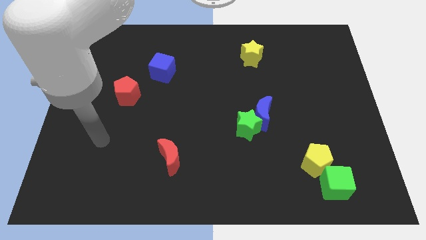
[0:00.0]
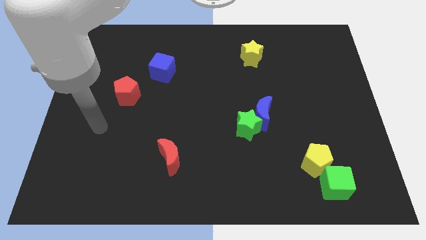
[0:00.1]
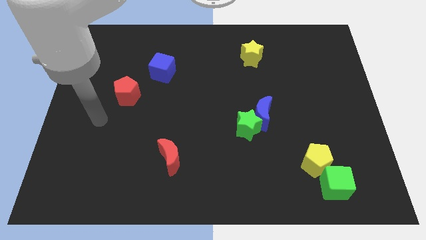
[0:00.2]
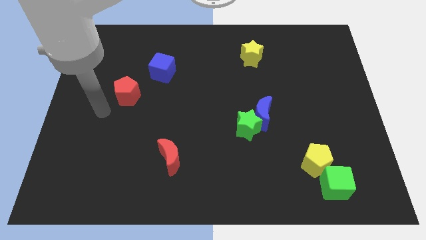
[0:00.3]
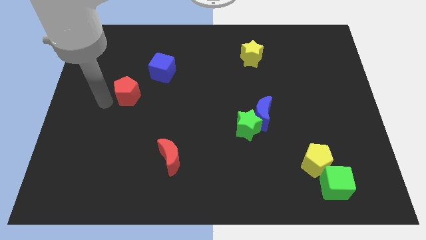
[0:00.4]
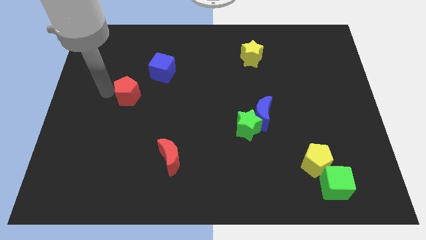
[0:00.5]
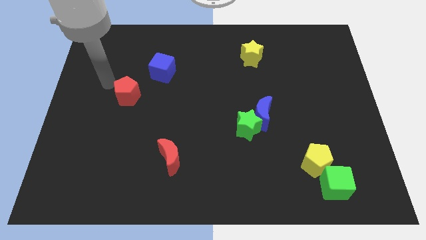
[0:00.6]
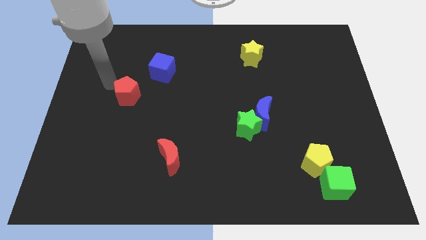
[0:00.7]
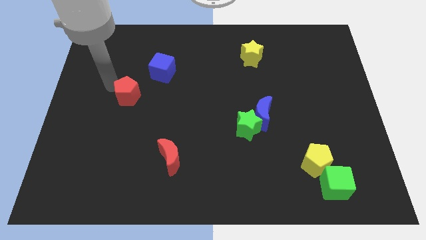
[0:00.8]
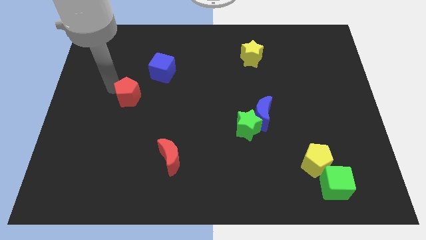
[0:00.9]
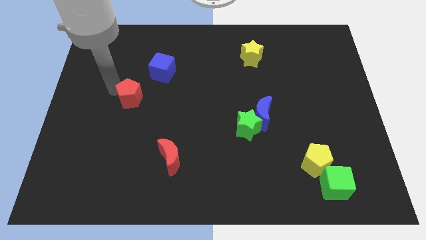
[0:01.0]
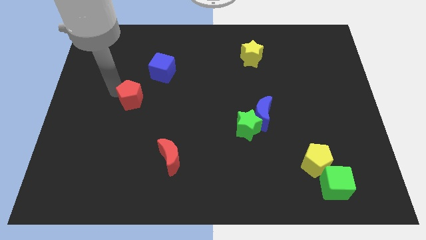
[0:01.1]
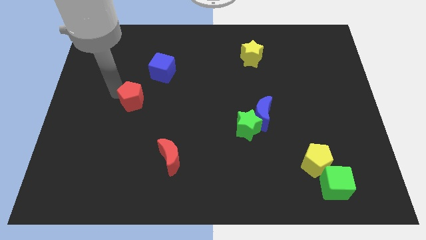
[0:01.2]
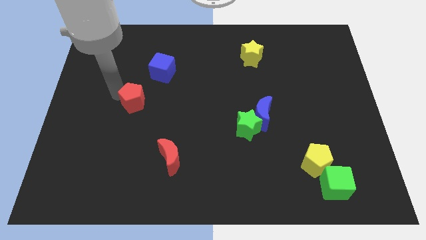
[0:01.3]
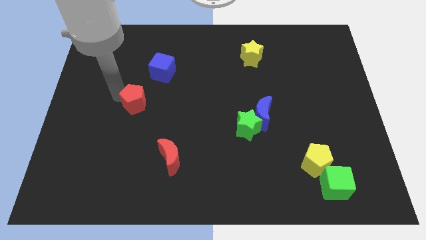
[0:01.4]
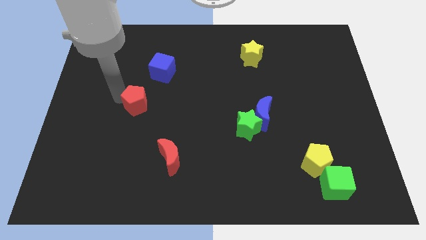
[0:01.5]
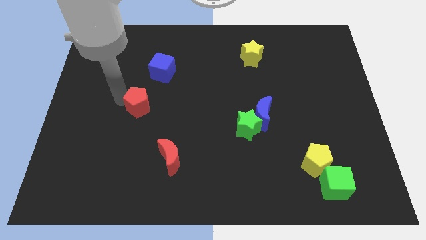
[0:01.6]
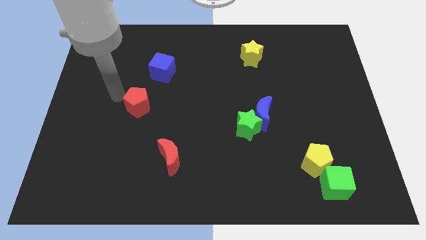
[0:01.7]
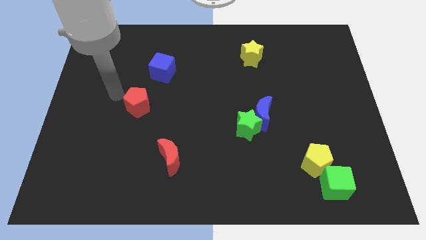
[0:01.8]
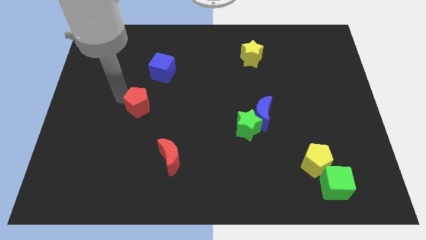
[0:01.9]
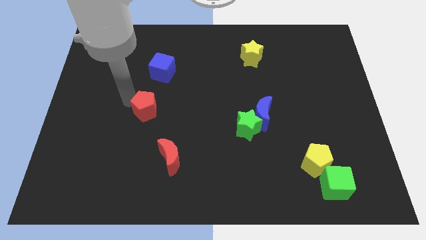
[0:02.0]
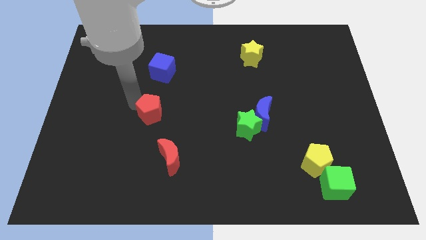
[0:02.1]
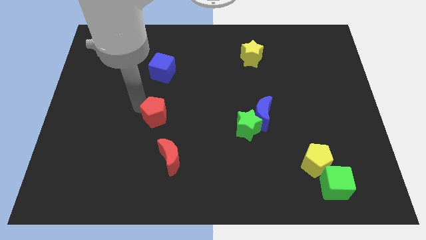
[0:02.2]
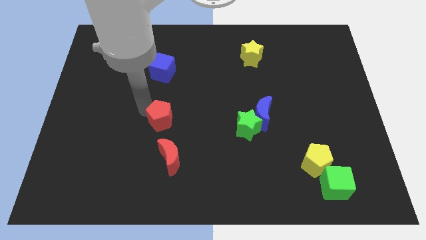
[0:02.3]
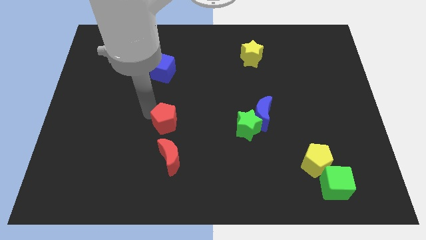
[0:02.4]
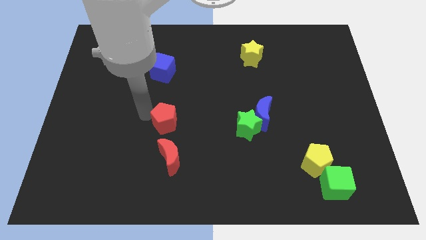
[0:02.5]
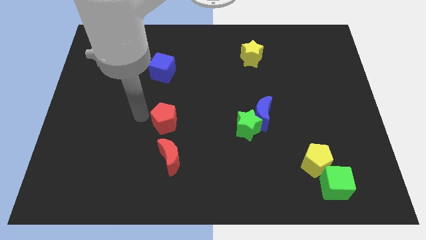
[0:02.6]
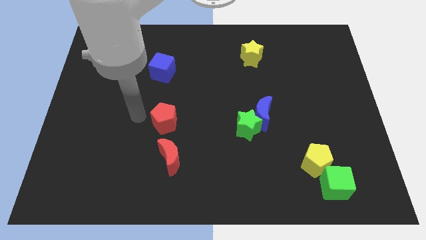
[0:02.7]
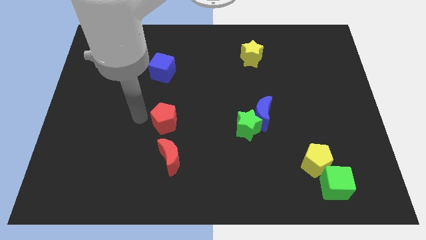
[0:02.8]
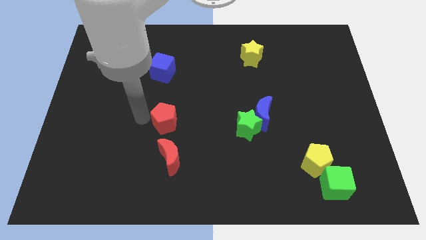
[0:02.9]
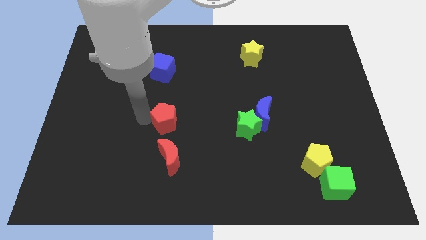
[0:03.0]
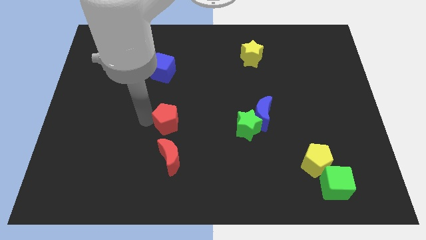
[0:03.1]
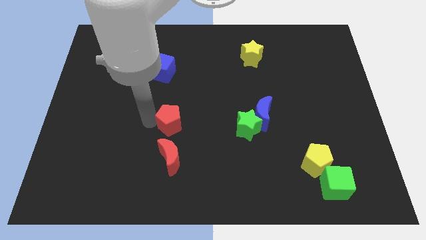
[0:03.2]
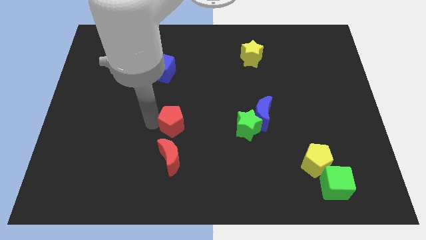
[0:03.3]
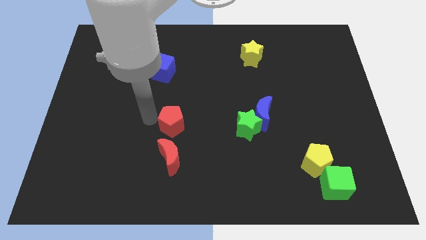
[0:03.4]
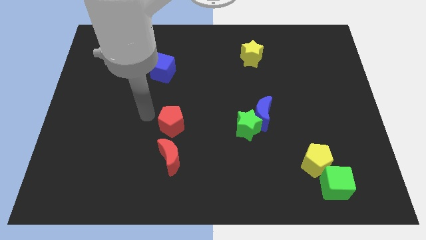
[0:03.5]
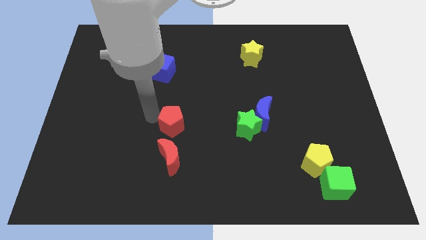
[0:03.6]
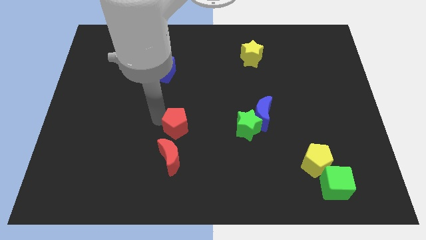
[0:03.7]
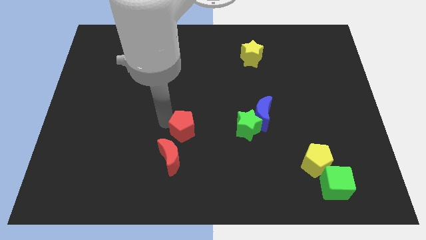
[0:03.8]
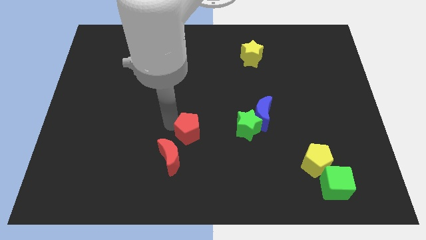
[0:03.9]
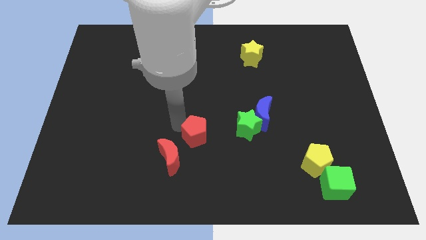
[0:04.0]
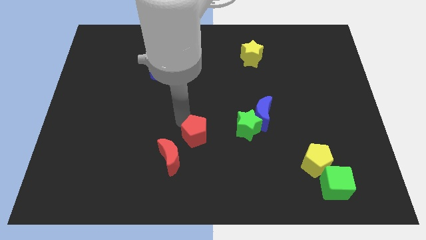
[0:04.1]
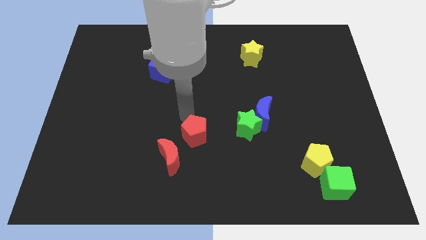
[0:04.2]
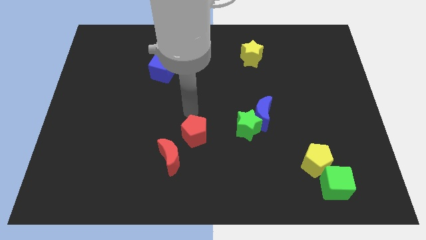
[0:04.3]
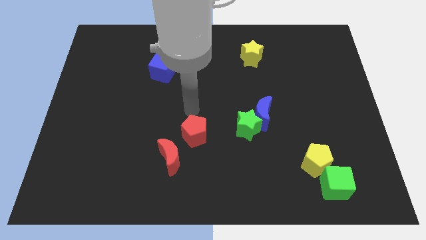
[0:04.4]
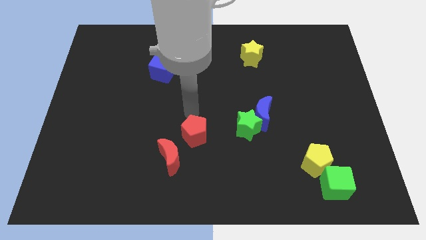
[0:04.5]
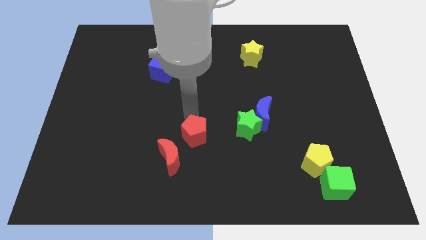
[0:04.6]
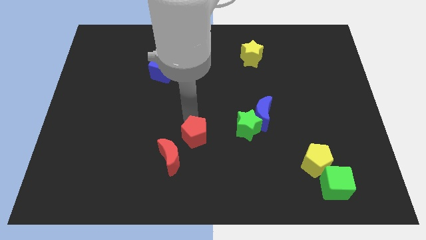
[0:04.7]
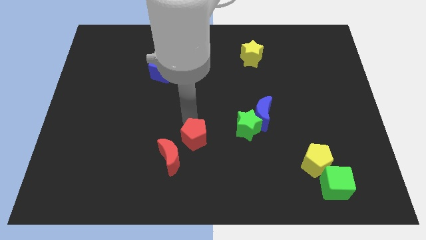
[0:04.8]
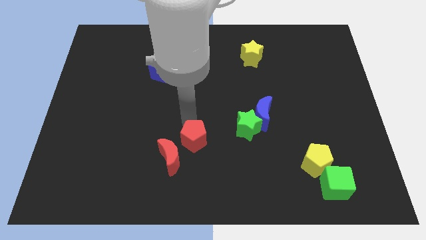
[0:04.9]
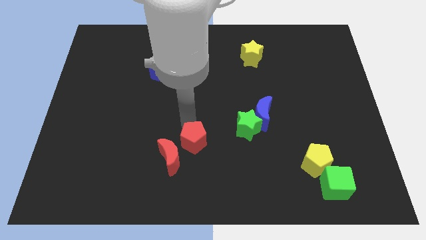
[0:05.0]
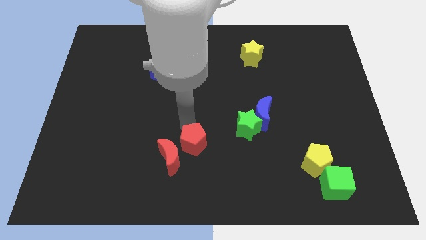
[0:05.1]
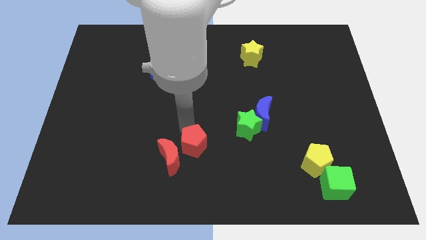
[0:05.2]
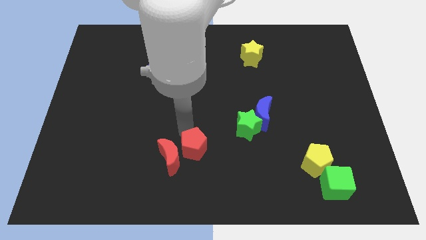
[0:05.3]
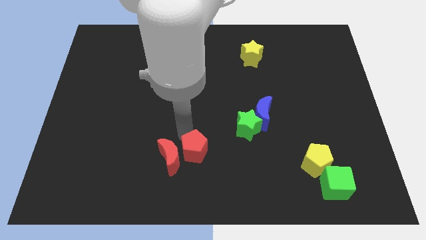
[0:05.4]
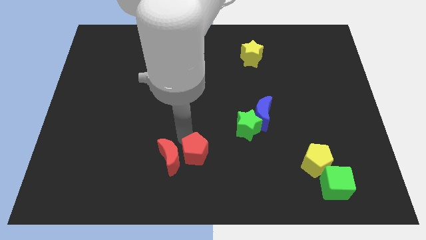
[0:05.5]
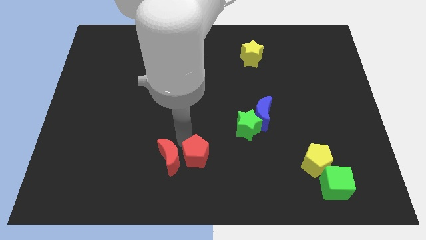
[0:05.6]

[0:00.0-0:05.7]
put the red pentagon to the bottom side
